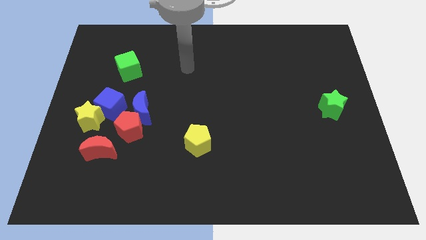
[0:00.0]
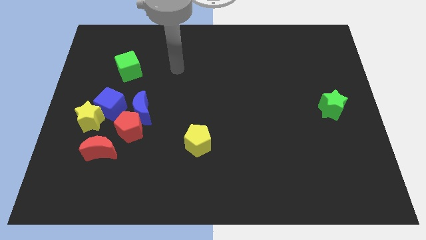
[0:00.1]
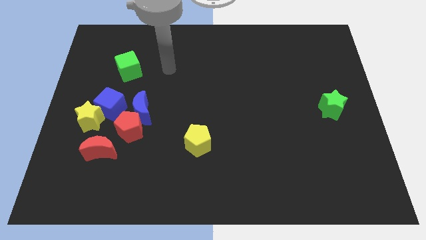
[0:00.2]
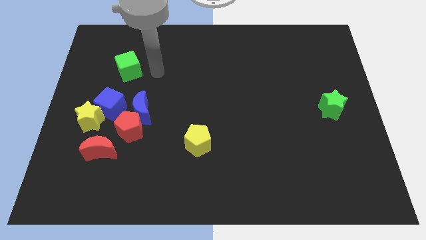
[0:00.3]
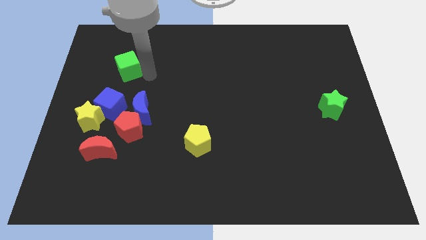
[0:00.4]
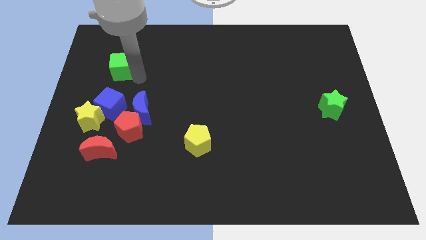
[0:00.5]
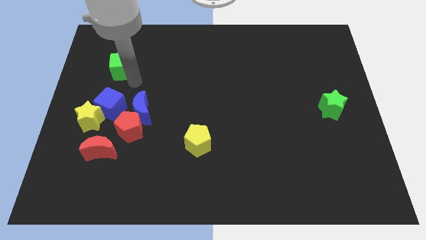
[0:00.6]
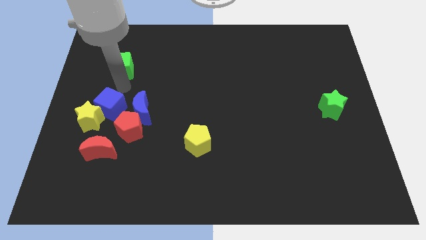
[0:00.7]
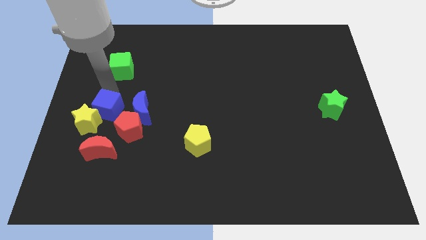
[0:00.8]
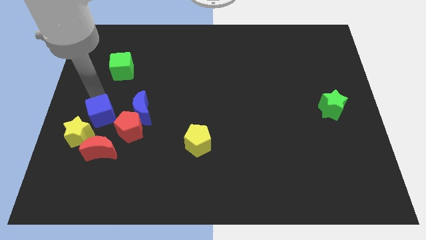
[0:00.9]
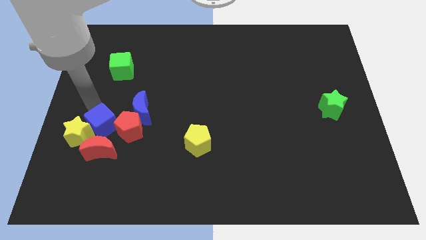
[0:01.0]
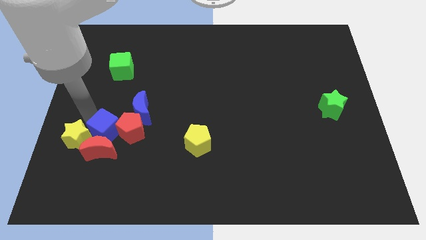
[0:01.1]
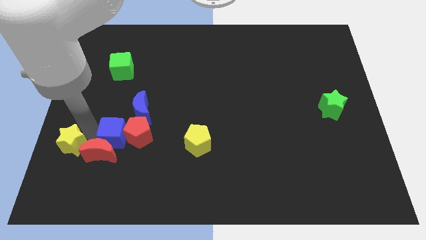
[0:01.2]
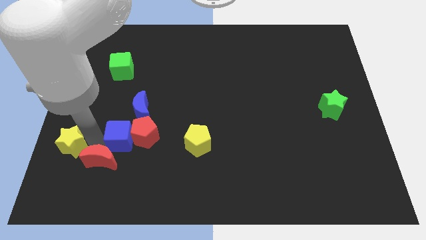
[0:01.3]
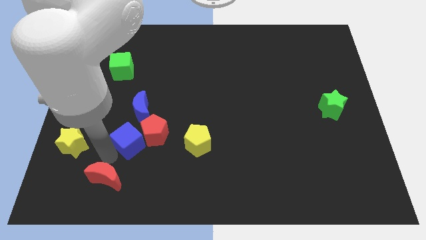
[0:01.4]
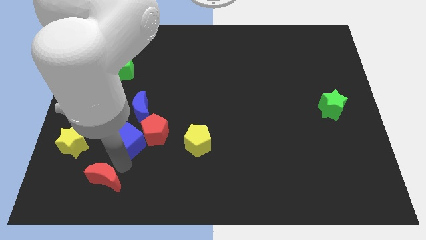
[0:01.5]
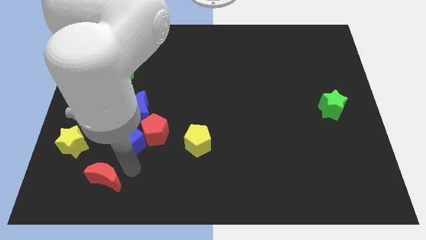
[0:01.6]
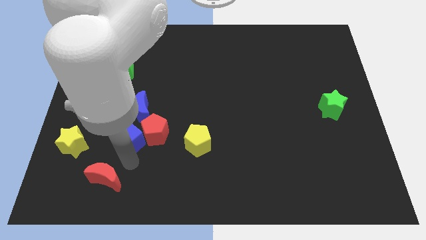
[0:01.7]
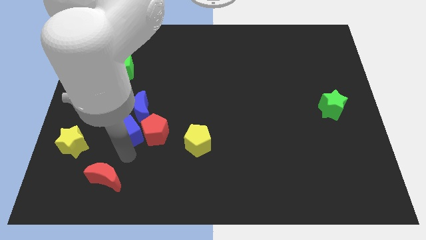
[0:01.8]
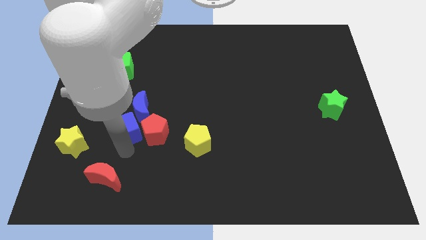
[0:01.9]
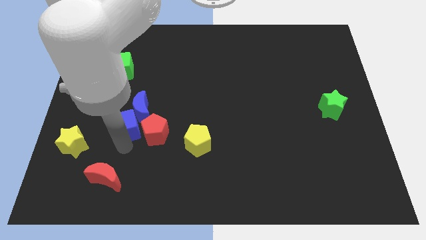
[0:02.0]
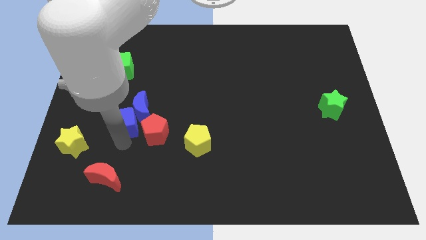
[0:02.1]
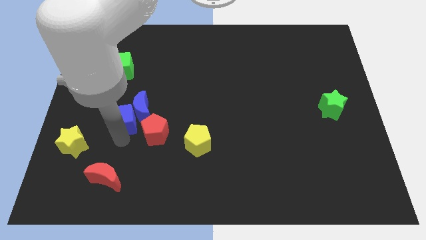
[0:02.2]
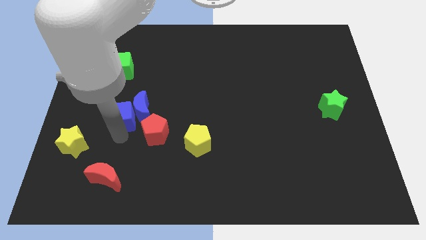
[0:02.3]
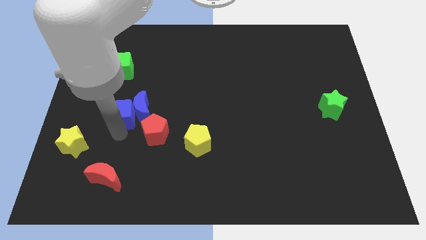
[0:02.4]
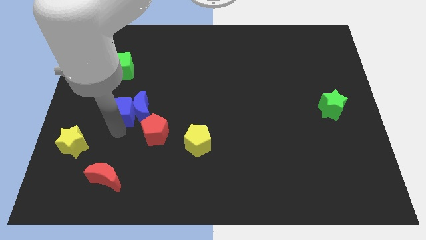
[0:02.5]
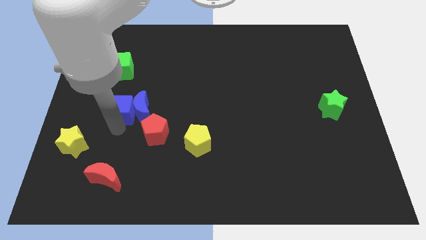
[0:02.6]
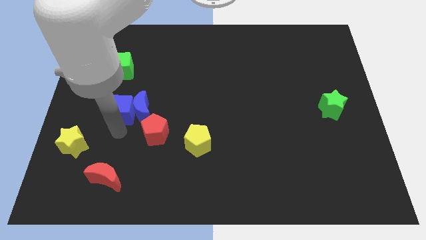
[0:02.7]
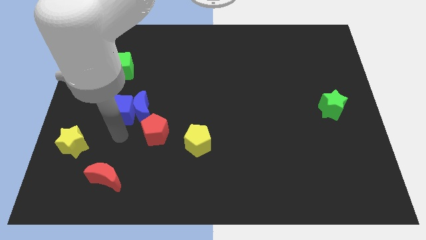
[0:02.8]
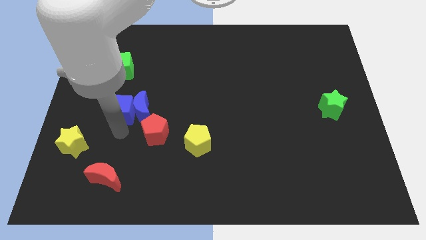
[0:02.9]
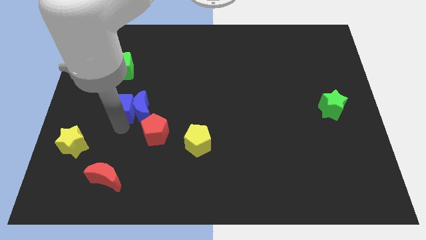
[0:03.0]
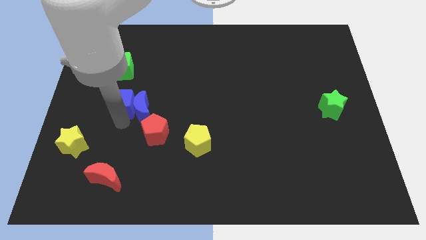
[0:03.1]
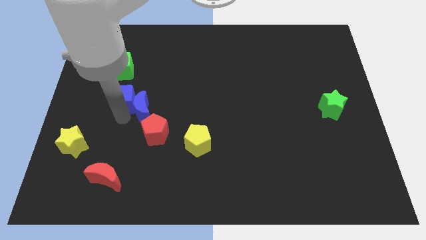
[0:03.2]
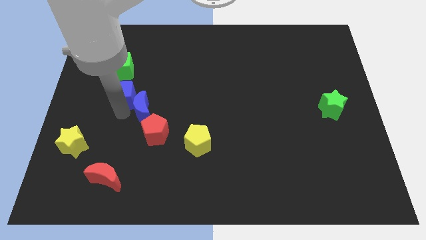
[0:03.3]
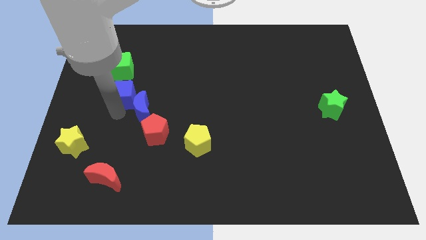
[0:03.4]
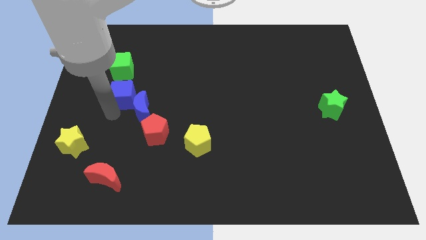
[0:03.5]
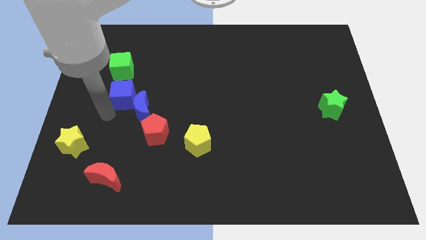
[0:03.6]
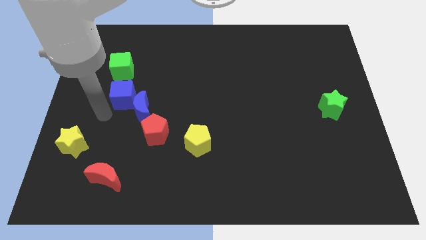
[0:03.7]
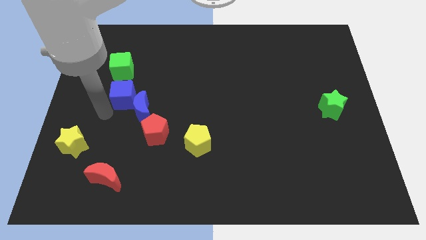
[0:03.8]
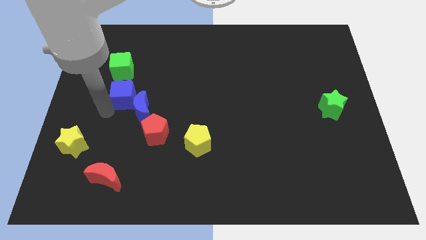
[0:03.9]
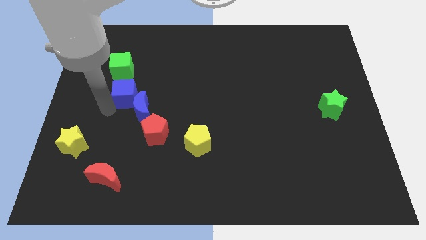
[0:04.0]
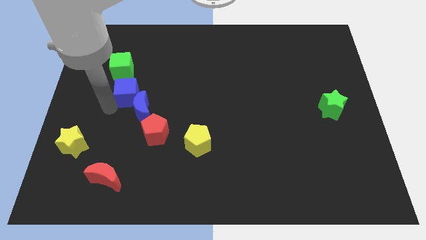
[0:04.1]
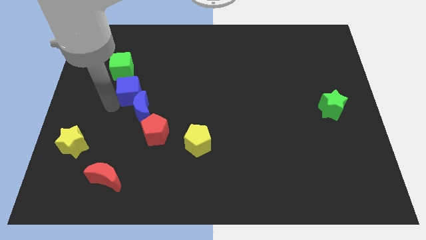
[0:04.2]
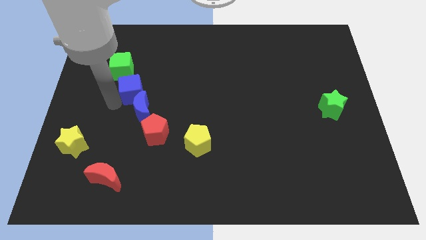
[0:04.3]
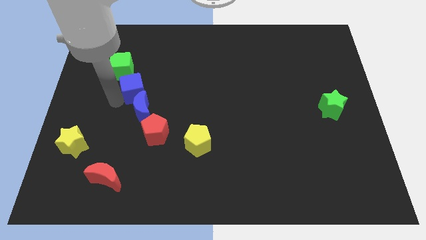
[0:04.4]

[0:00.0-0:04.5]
push the blue cube a little up and right

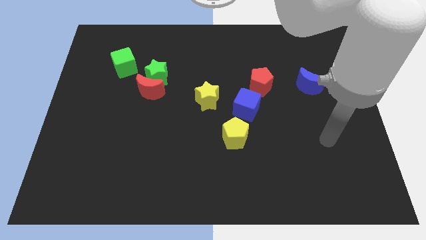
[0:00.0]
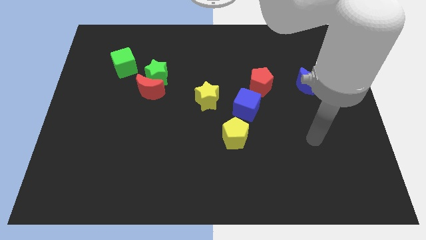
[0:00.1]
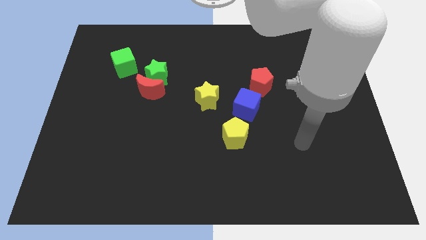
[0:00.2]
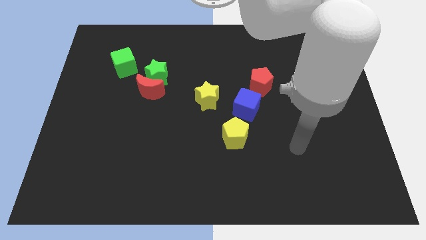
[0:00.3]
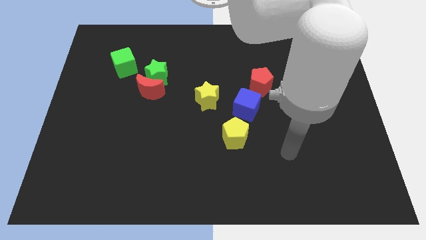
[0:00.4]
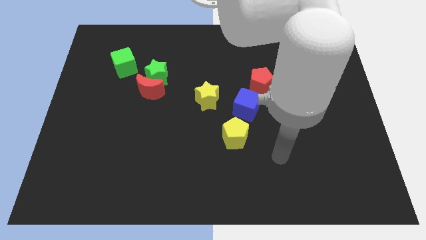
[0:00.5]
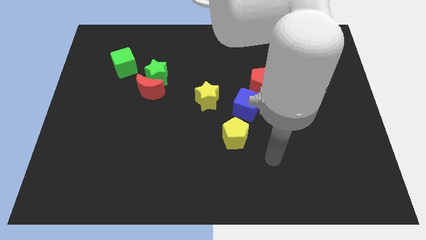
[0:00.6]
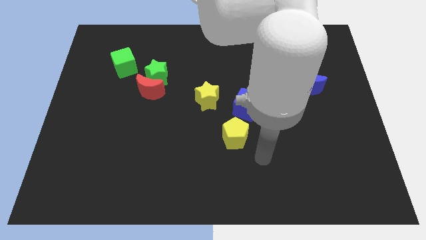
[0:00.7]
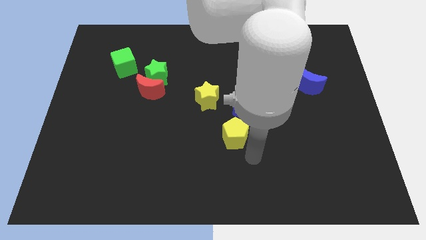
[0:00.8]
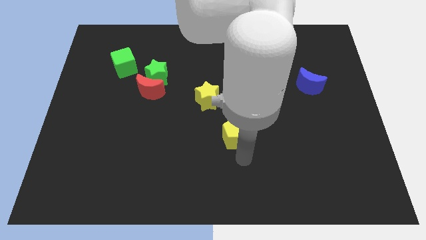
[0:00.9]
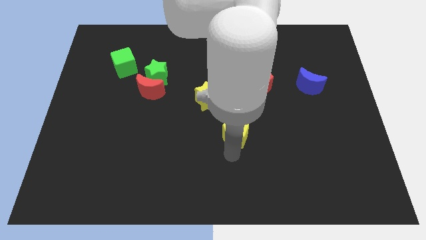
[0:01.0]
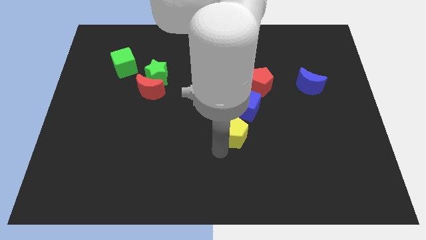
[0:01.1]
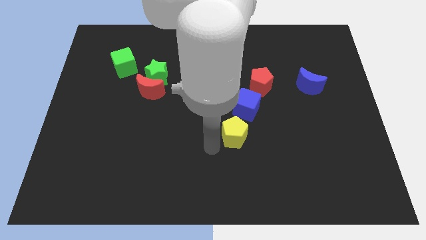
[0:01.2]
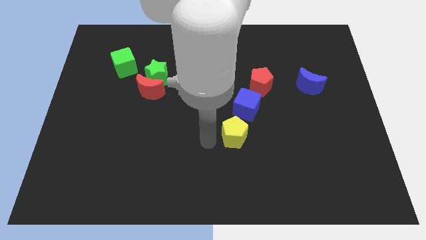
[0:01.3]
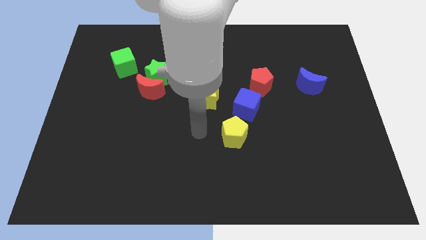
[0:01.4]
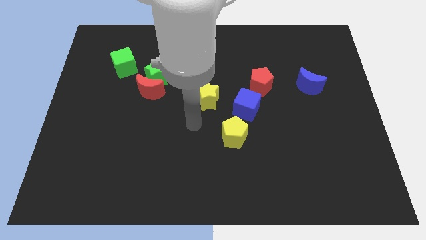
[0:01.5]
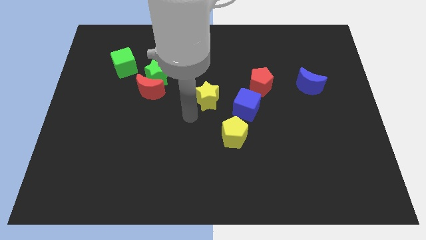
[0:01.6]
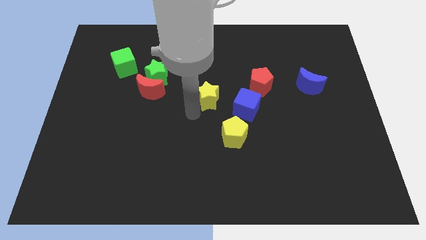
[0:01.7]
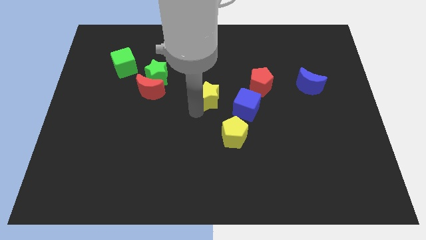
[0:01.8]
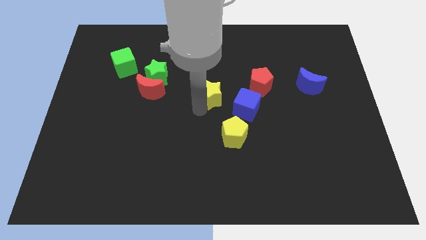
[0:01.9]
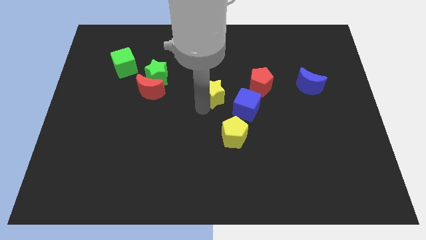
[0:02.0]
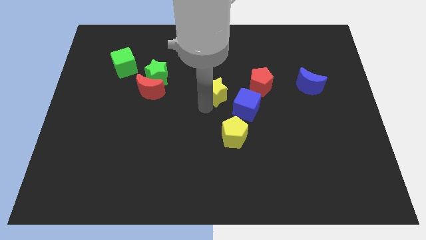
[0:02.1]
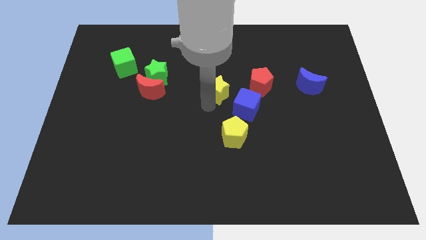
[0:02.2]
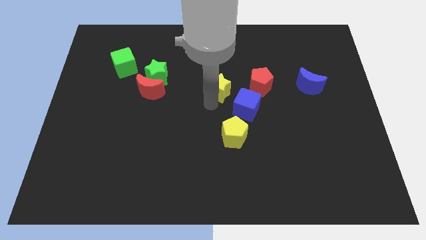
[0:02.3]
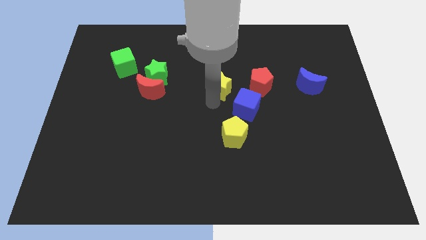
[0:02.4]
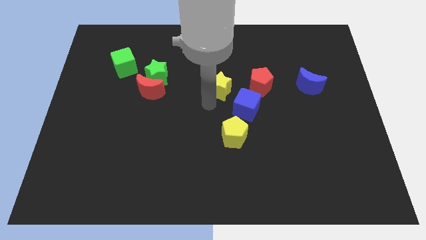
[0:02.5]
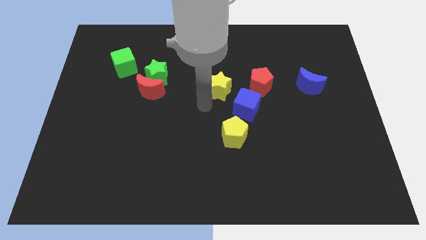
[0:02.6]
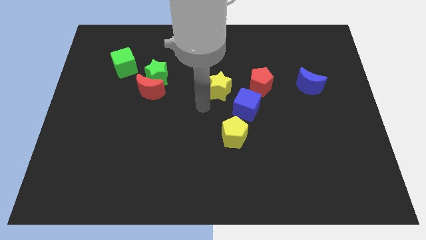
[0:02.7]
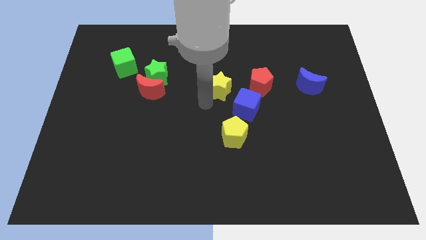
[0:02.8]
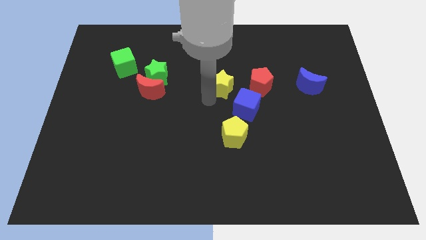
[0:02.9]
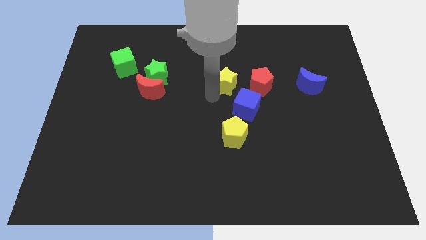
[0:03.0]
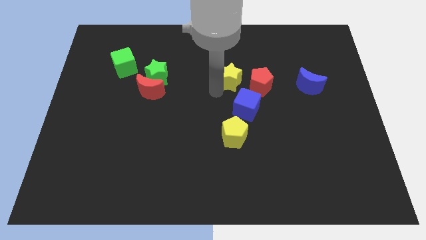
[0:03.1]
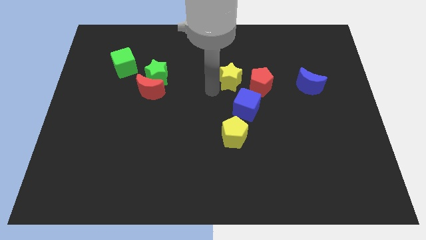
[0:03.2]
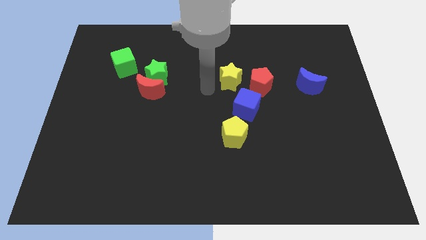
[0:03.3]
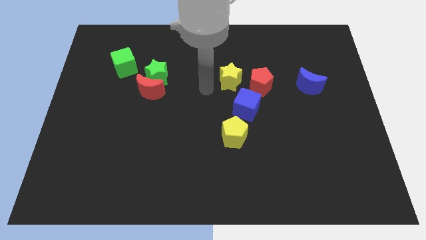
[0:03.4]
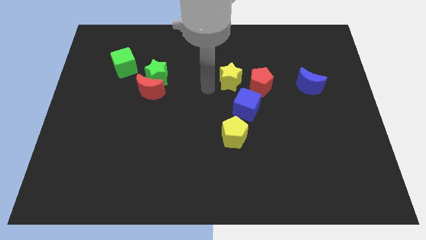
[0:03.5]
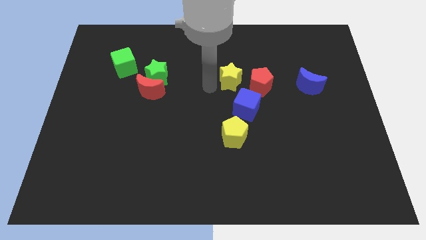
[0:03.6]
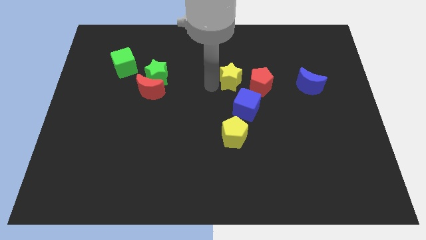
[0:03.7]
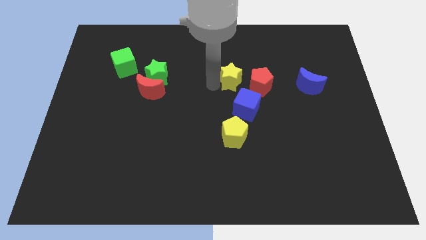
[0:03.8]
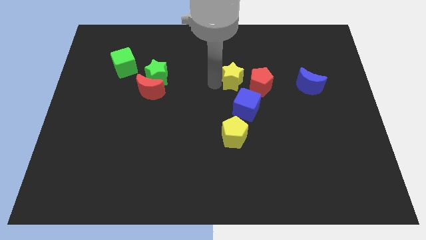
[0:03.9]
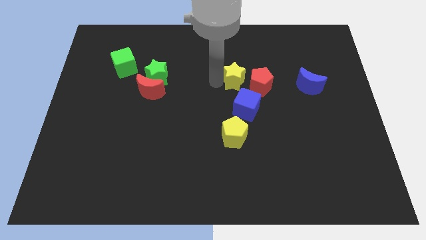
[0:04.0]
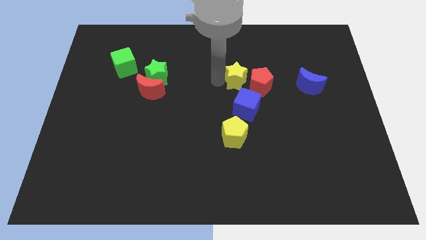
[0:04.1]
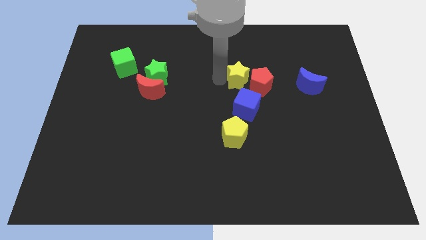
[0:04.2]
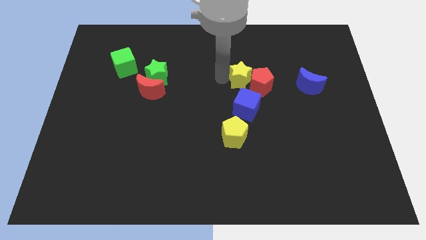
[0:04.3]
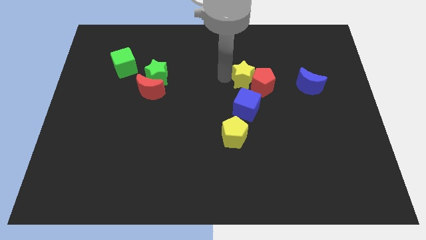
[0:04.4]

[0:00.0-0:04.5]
push the yellow star right a little bit
